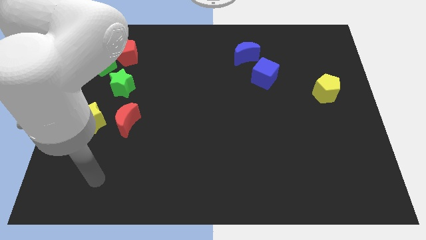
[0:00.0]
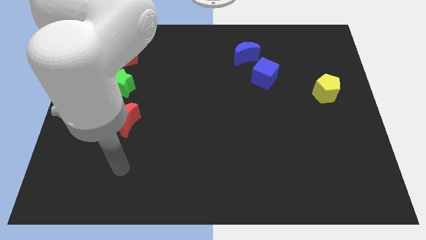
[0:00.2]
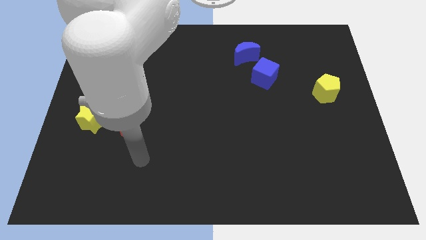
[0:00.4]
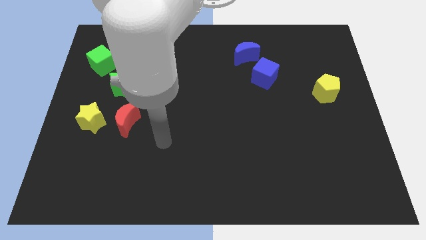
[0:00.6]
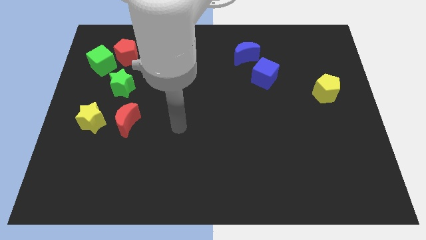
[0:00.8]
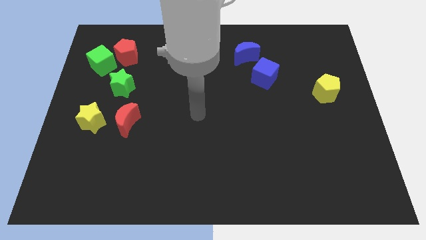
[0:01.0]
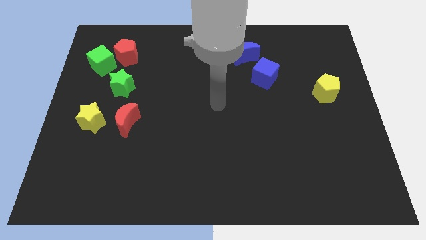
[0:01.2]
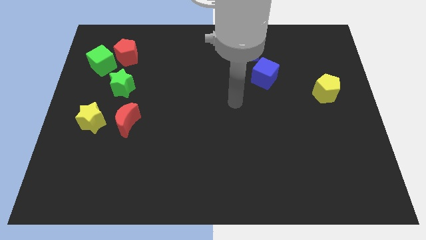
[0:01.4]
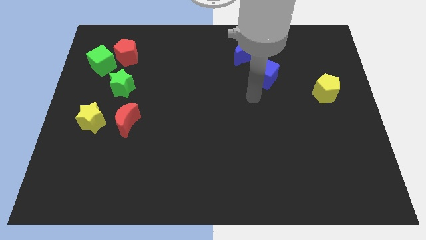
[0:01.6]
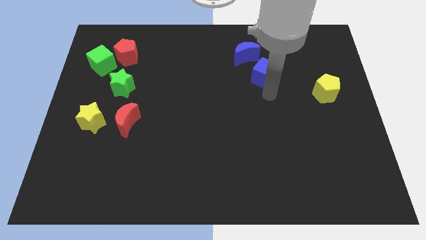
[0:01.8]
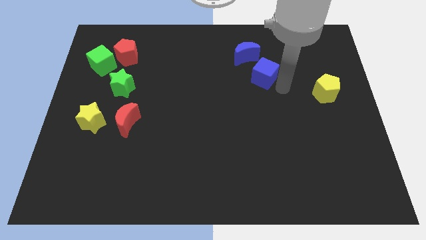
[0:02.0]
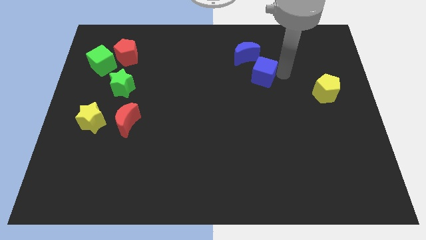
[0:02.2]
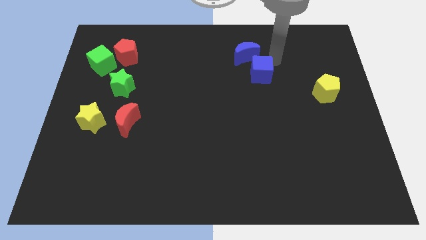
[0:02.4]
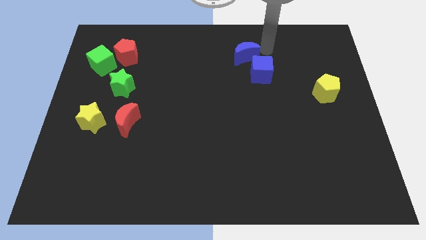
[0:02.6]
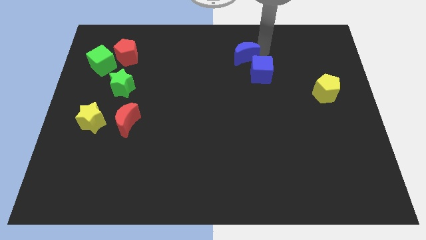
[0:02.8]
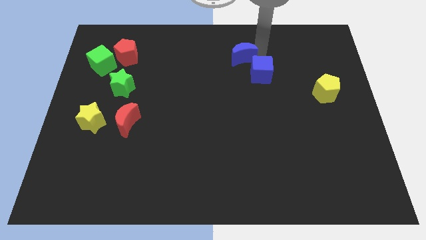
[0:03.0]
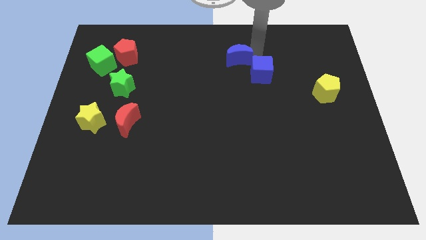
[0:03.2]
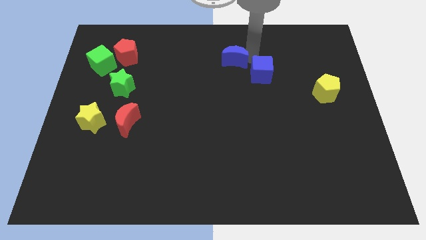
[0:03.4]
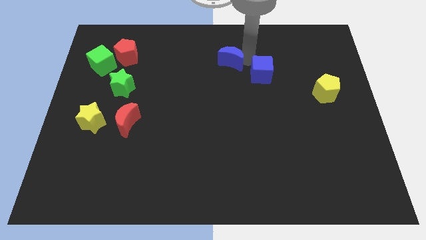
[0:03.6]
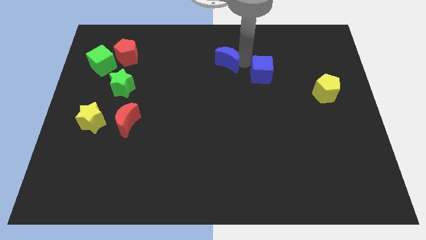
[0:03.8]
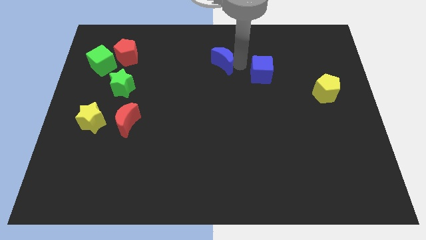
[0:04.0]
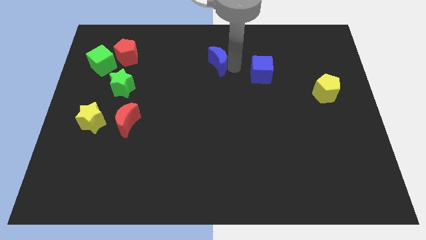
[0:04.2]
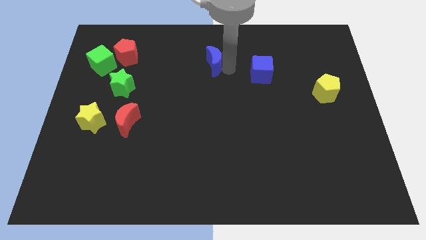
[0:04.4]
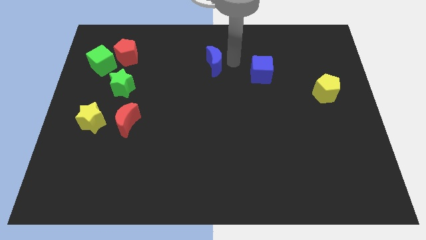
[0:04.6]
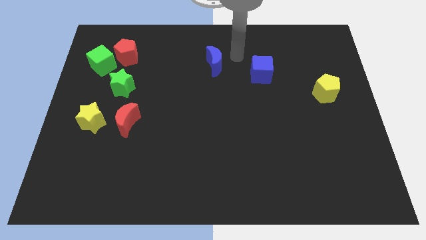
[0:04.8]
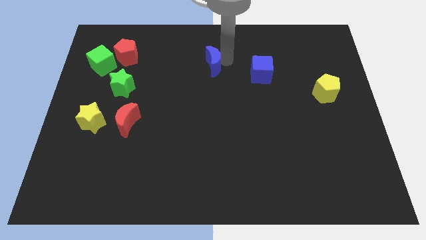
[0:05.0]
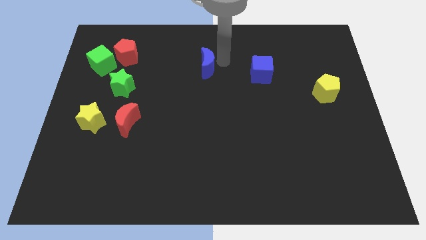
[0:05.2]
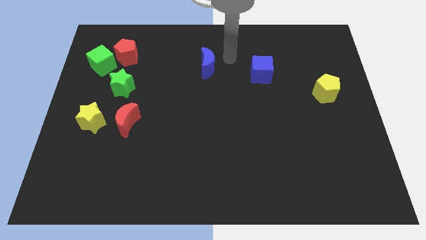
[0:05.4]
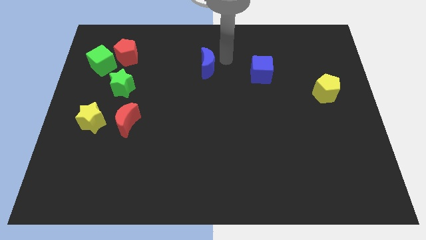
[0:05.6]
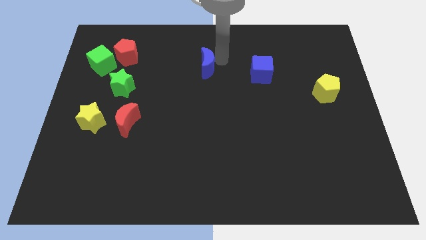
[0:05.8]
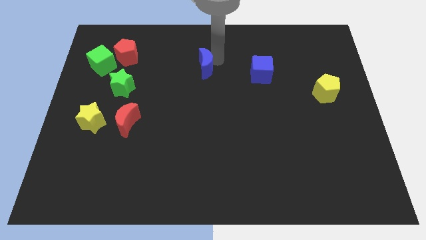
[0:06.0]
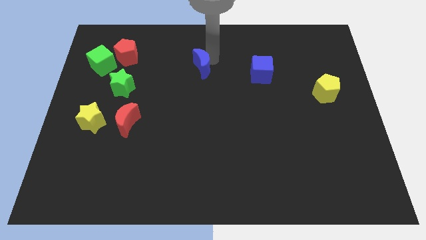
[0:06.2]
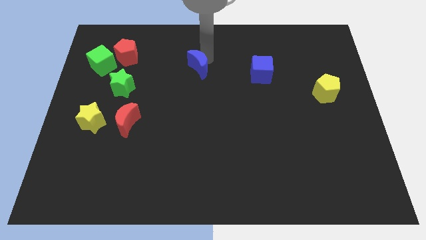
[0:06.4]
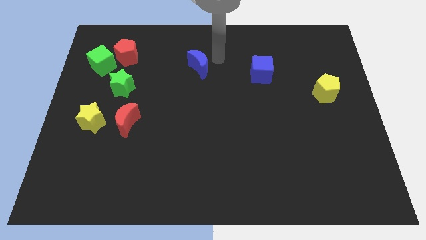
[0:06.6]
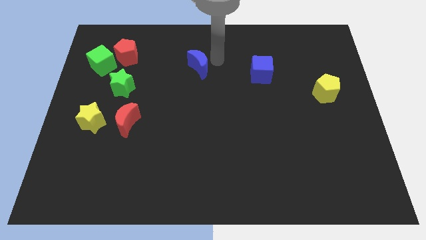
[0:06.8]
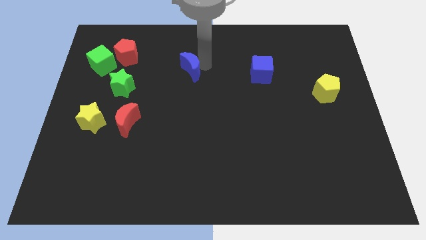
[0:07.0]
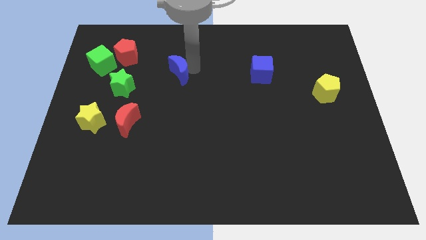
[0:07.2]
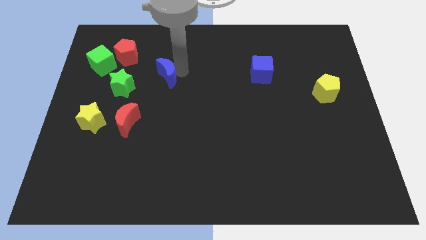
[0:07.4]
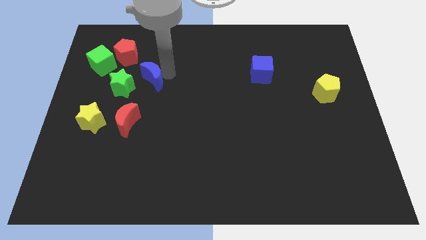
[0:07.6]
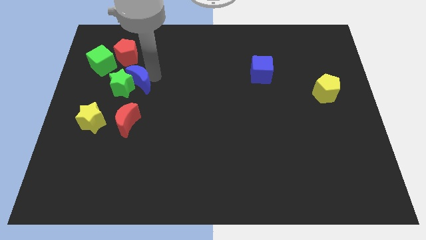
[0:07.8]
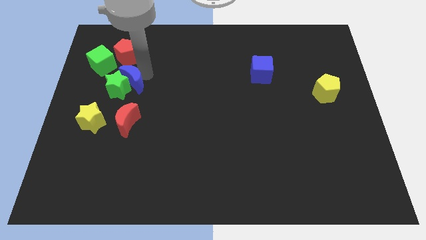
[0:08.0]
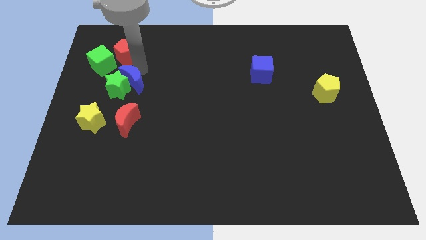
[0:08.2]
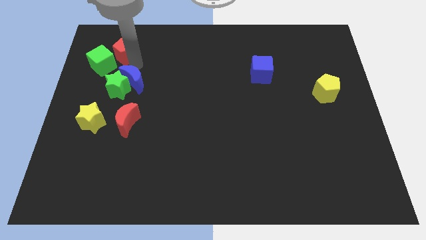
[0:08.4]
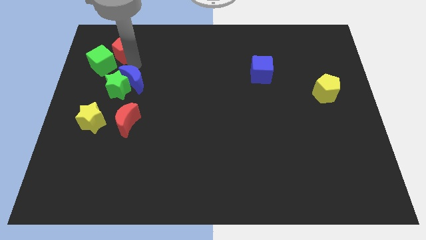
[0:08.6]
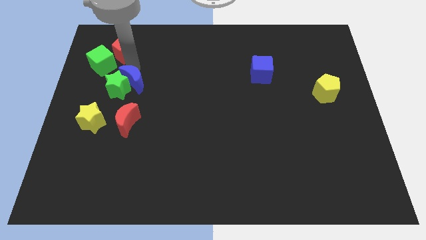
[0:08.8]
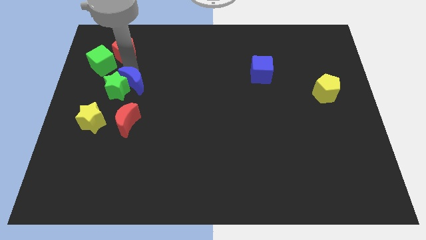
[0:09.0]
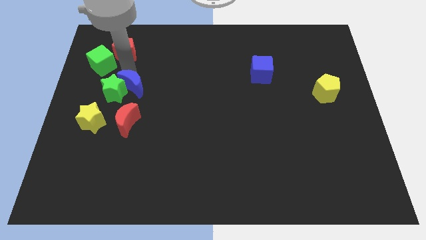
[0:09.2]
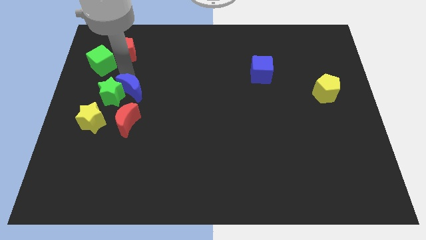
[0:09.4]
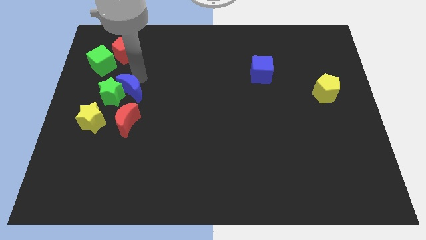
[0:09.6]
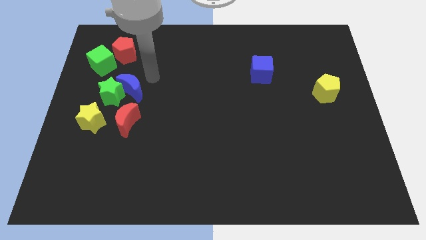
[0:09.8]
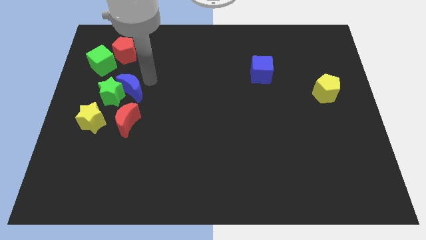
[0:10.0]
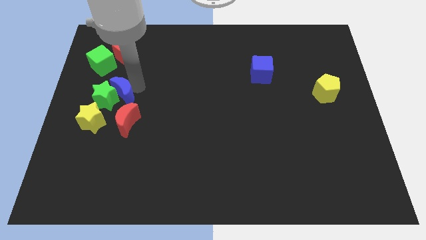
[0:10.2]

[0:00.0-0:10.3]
slide the blue moon diagonally up and to the left of the red moon

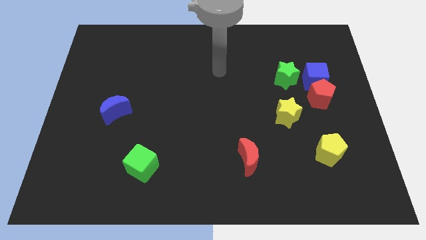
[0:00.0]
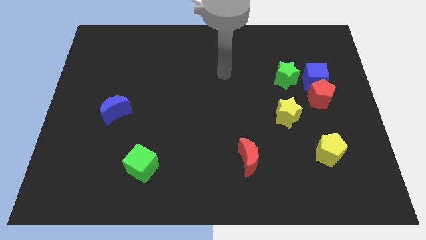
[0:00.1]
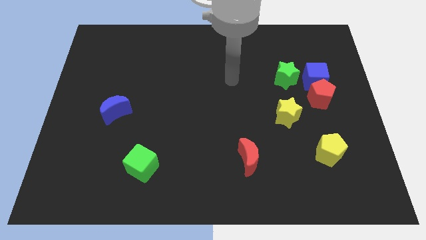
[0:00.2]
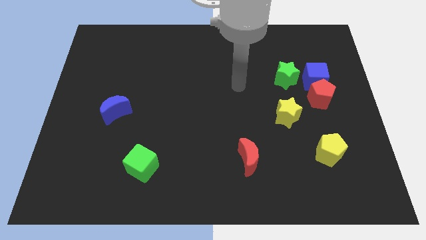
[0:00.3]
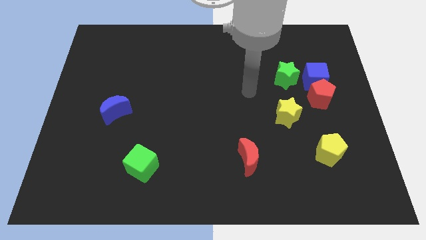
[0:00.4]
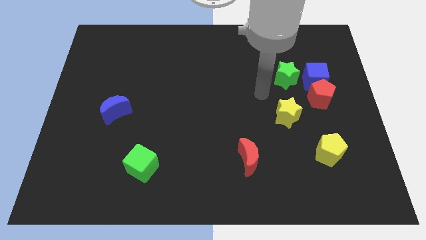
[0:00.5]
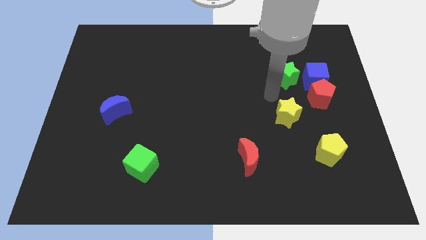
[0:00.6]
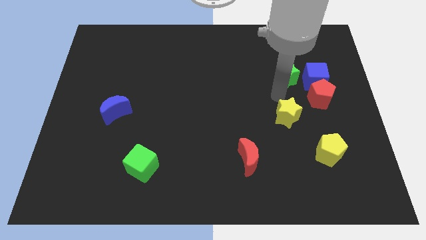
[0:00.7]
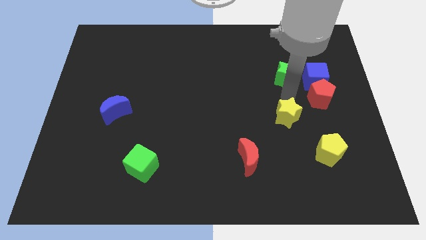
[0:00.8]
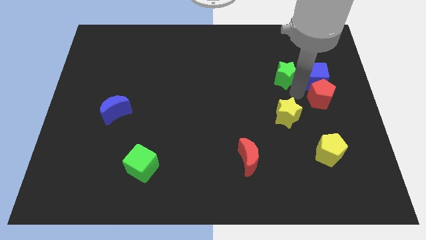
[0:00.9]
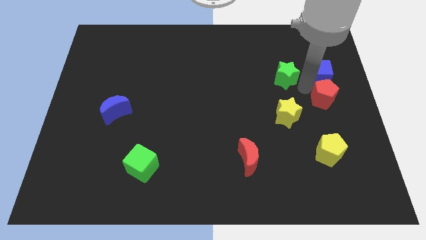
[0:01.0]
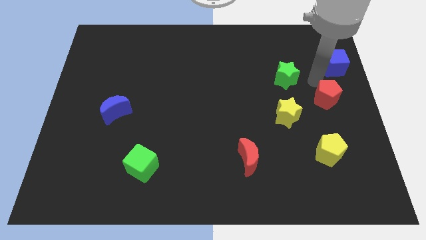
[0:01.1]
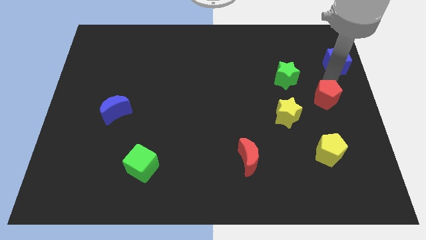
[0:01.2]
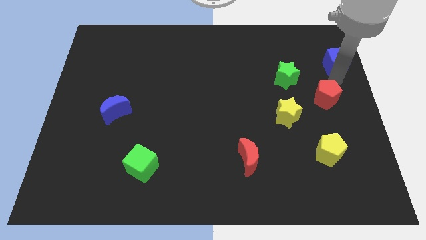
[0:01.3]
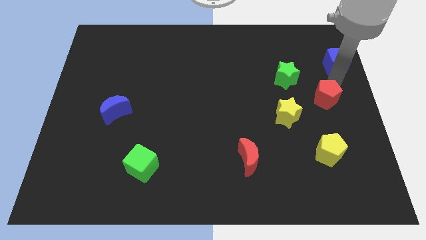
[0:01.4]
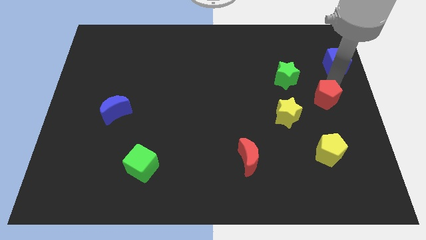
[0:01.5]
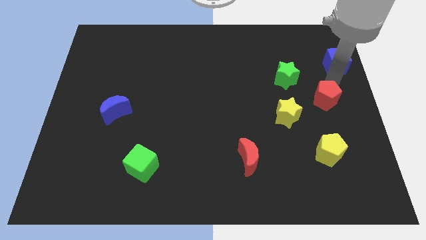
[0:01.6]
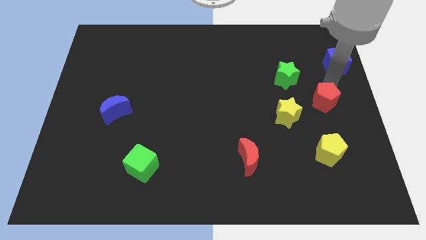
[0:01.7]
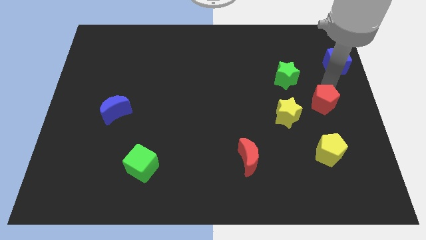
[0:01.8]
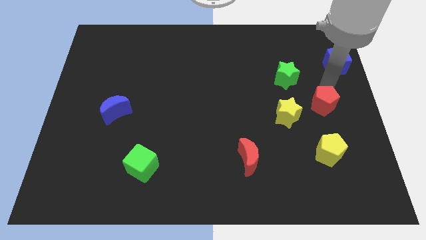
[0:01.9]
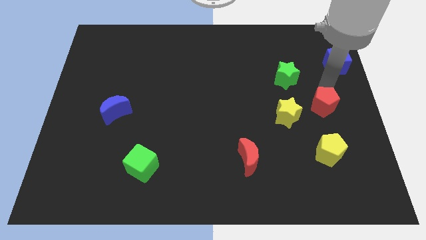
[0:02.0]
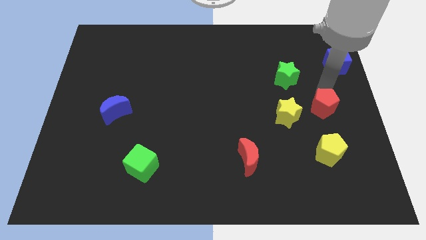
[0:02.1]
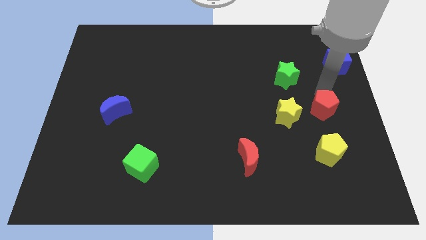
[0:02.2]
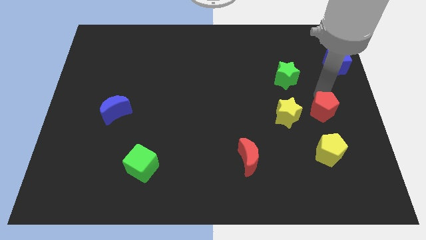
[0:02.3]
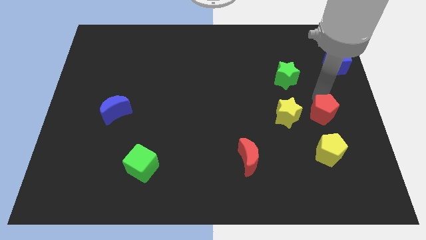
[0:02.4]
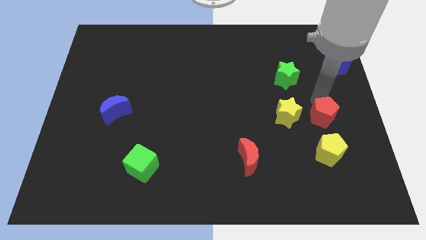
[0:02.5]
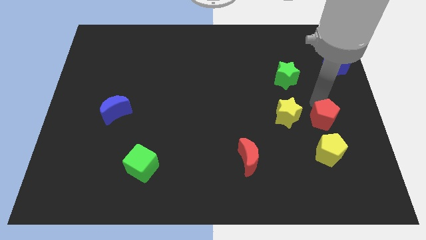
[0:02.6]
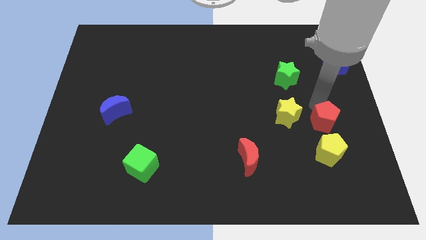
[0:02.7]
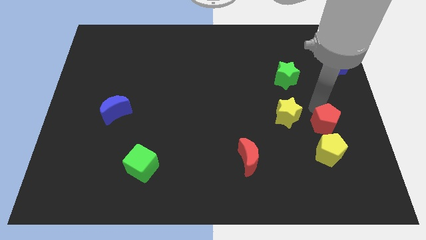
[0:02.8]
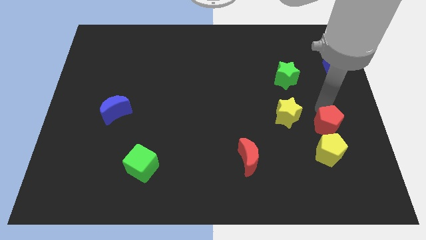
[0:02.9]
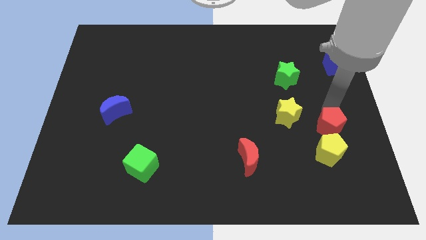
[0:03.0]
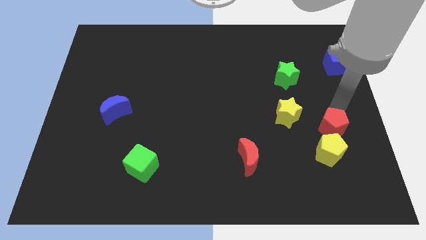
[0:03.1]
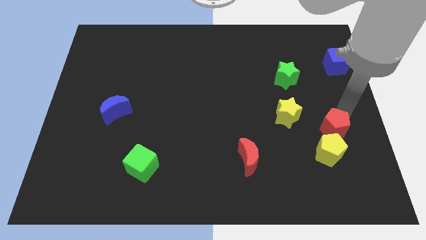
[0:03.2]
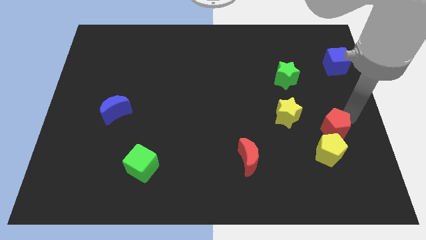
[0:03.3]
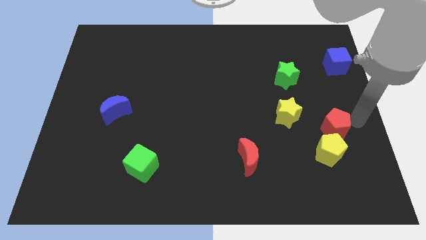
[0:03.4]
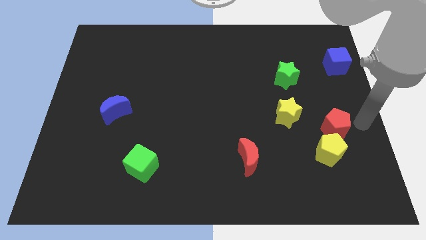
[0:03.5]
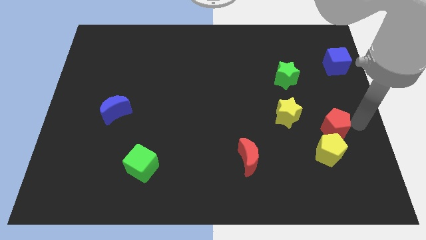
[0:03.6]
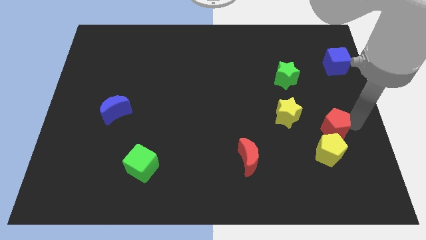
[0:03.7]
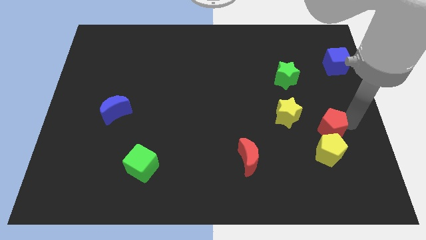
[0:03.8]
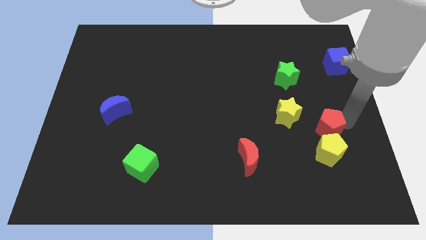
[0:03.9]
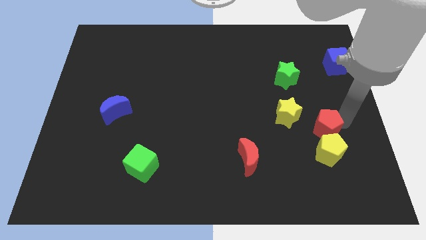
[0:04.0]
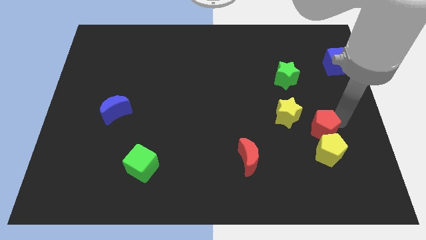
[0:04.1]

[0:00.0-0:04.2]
slide the red pentagon to the top left side of the yellow pentagon
